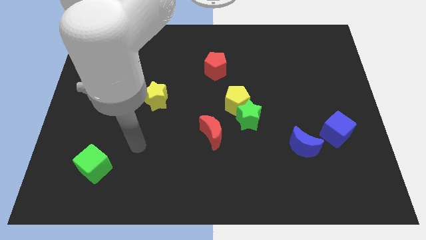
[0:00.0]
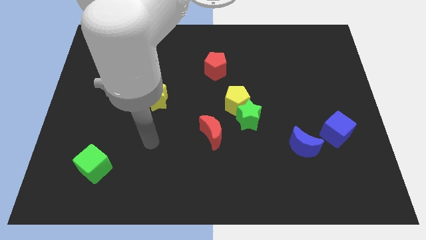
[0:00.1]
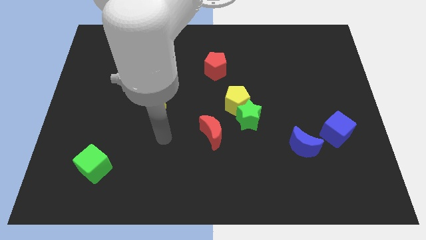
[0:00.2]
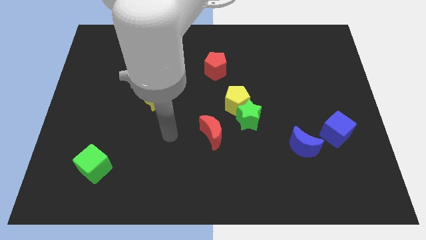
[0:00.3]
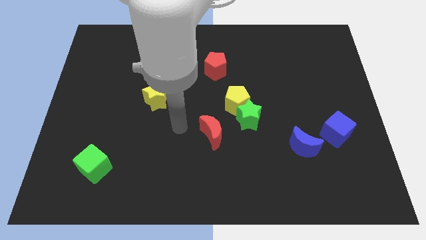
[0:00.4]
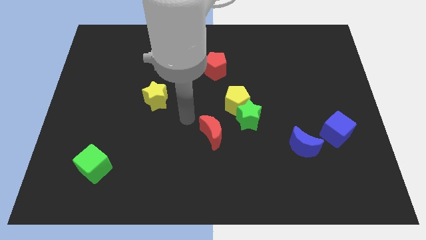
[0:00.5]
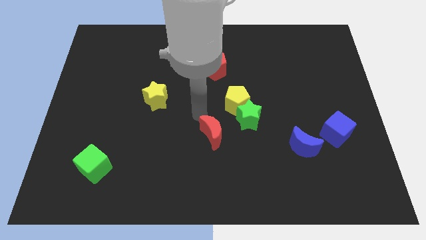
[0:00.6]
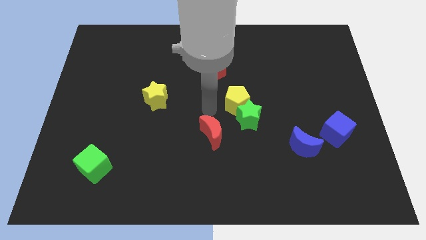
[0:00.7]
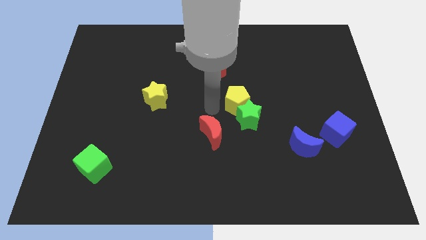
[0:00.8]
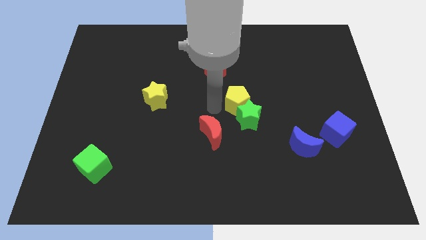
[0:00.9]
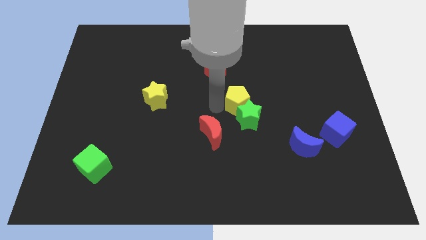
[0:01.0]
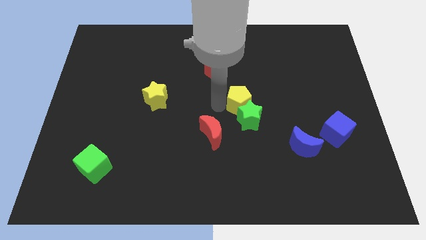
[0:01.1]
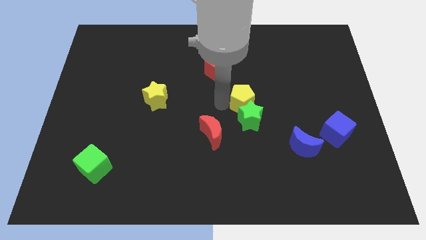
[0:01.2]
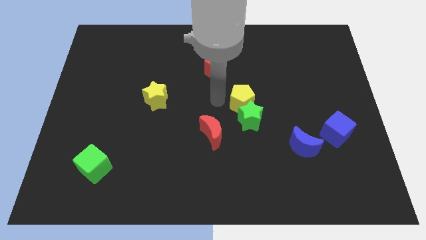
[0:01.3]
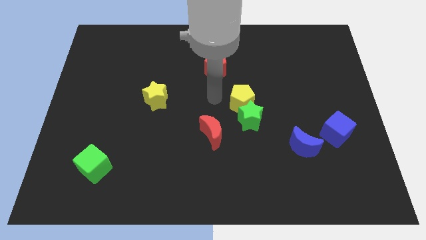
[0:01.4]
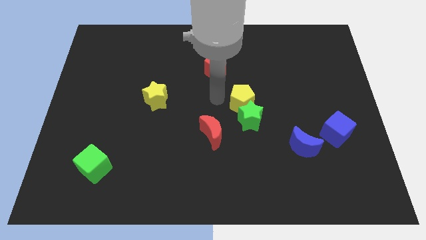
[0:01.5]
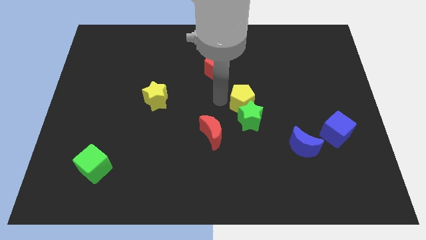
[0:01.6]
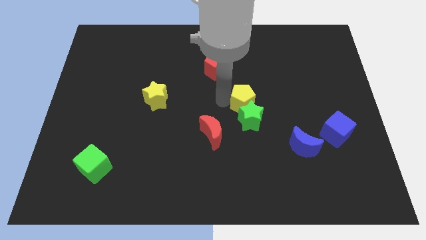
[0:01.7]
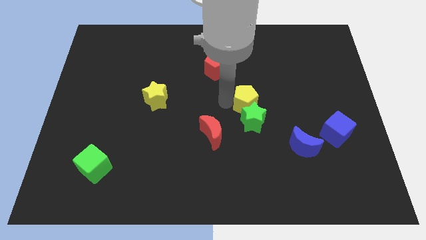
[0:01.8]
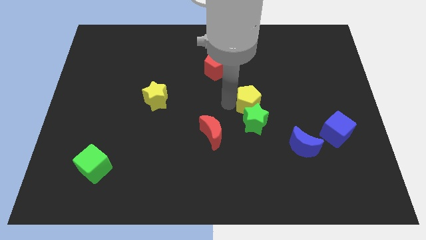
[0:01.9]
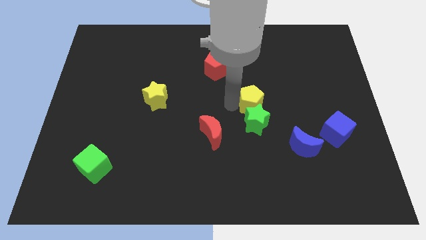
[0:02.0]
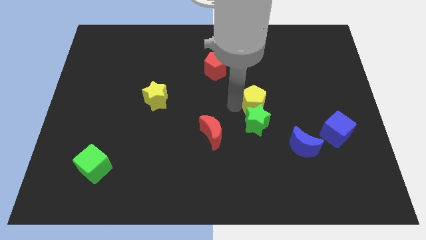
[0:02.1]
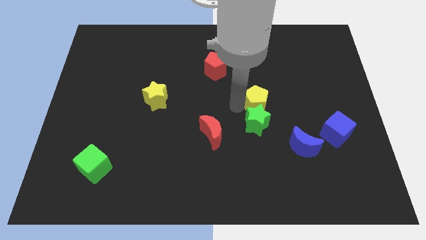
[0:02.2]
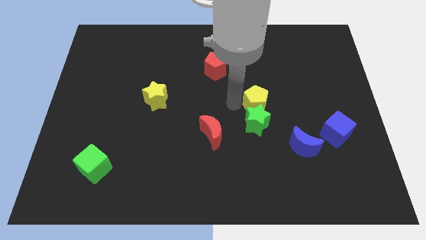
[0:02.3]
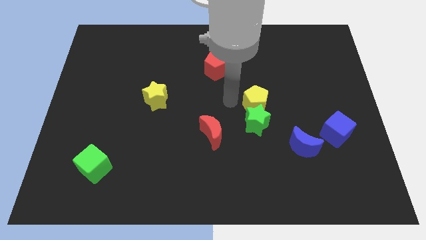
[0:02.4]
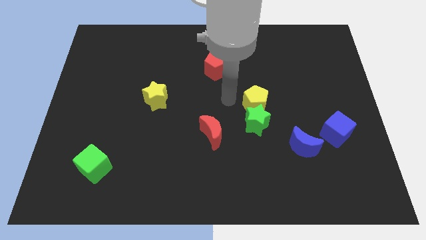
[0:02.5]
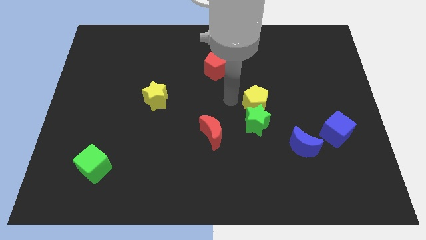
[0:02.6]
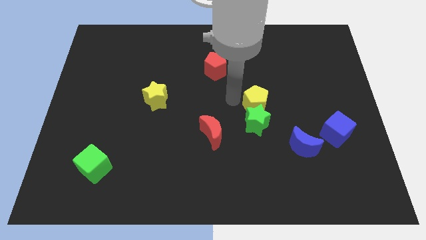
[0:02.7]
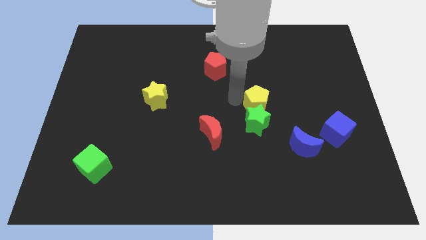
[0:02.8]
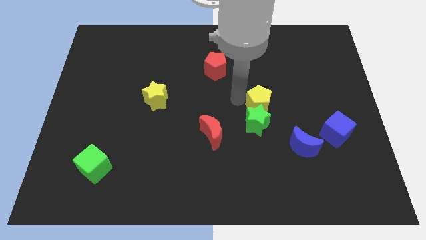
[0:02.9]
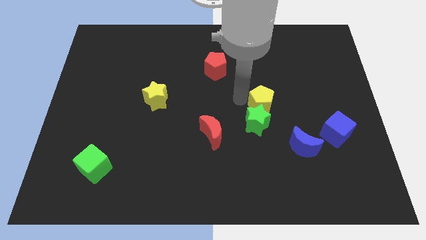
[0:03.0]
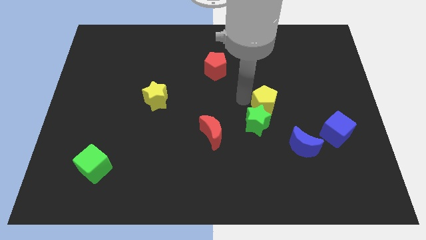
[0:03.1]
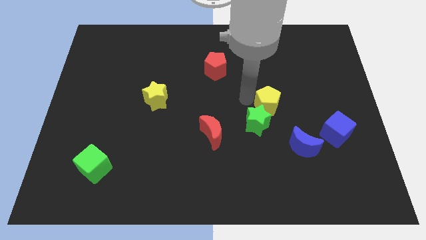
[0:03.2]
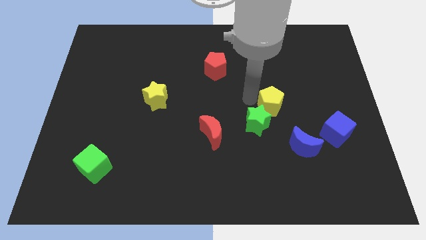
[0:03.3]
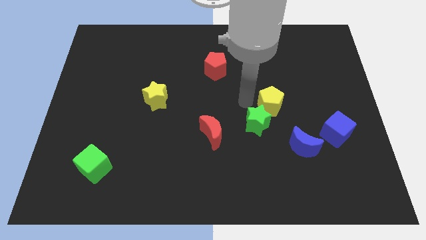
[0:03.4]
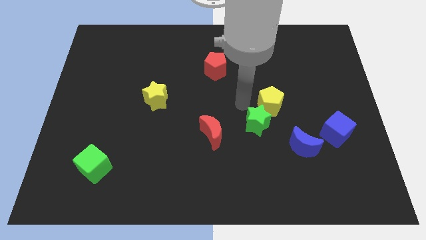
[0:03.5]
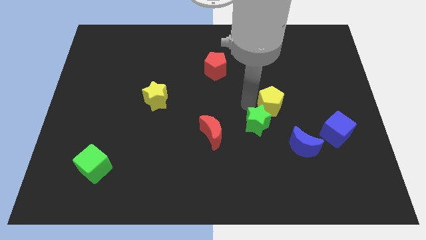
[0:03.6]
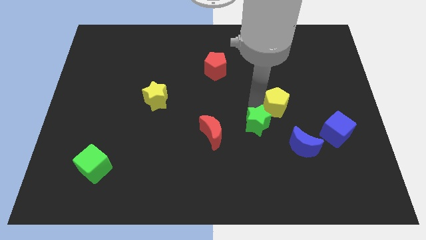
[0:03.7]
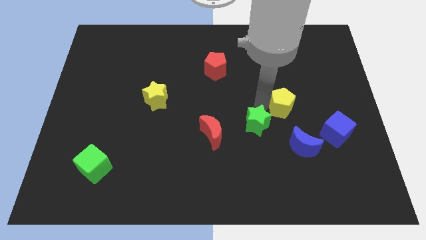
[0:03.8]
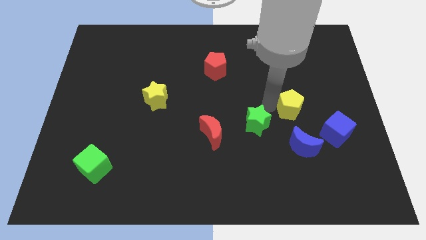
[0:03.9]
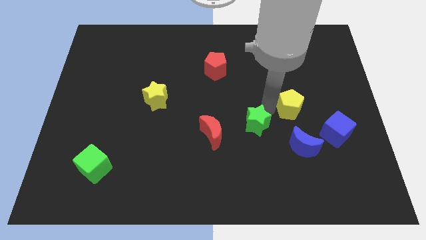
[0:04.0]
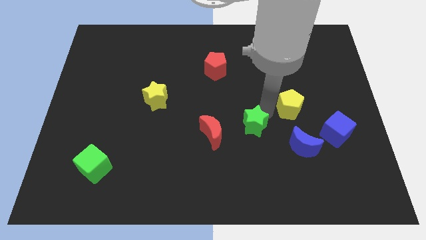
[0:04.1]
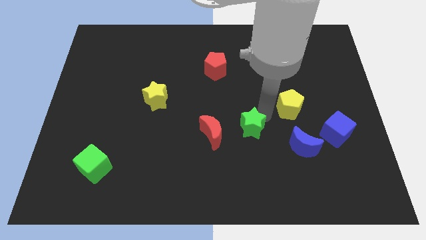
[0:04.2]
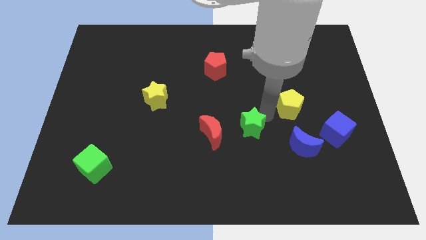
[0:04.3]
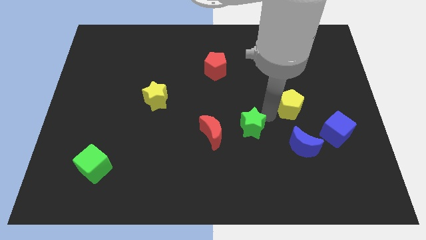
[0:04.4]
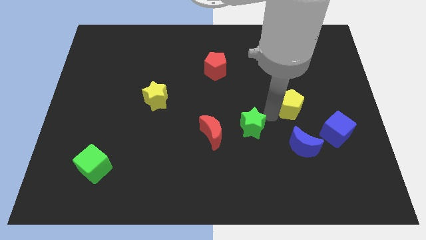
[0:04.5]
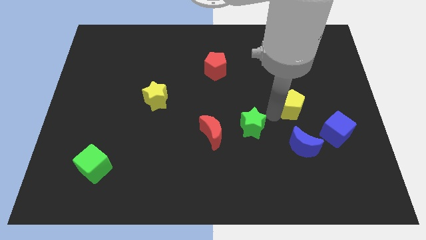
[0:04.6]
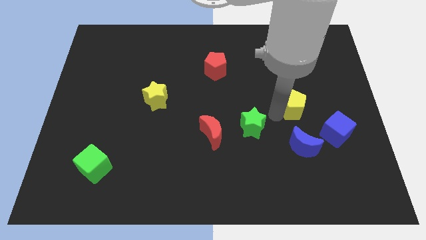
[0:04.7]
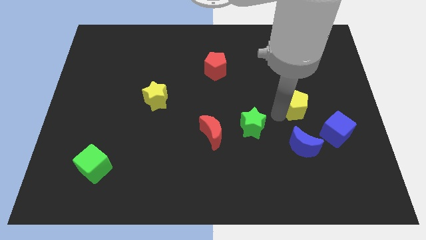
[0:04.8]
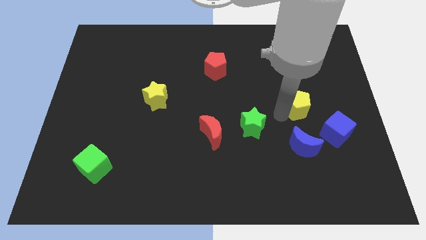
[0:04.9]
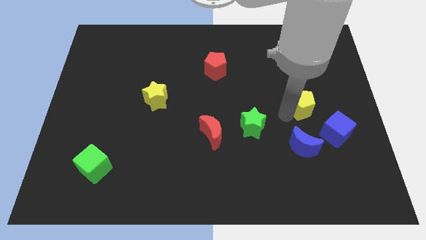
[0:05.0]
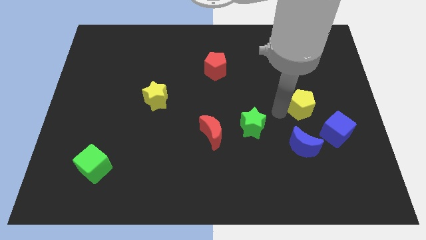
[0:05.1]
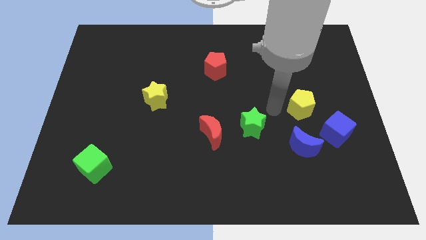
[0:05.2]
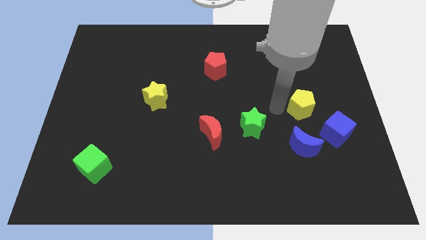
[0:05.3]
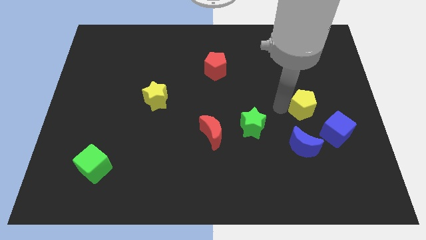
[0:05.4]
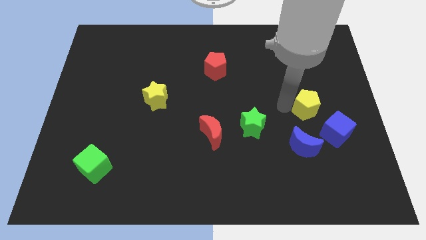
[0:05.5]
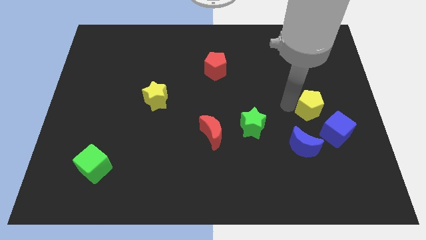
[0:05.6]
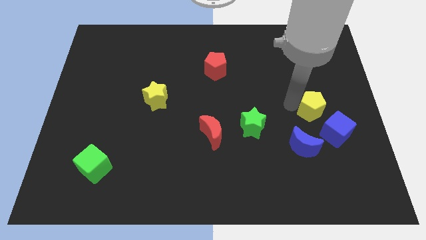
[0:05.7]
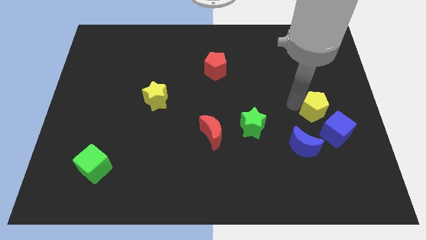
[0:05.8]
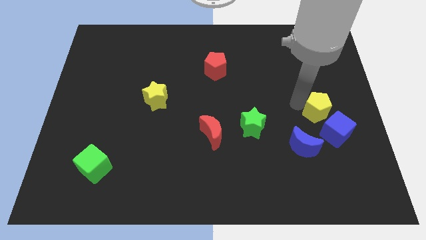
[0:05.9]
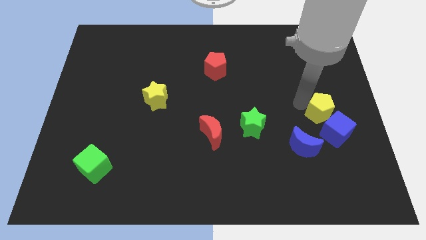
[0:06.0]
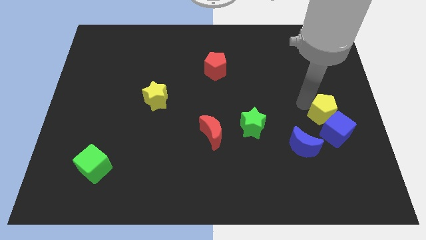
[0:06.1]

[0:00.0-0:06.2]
put the yellow pentagon to the right side

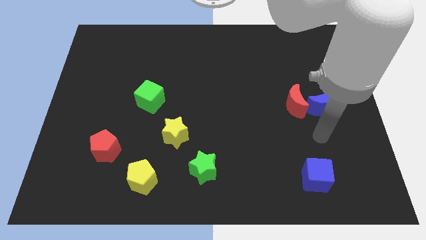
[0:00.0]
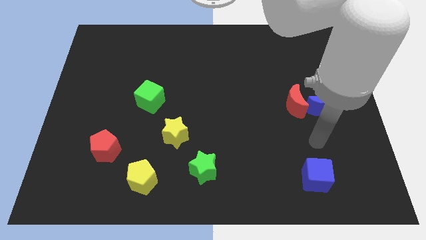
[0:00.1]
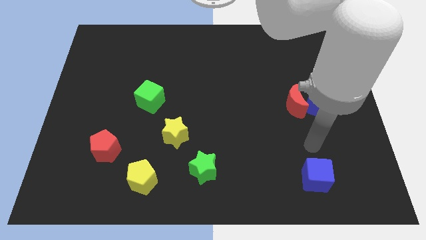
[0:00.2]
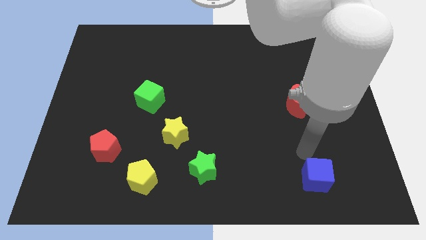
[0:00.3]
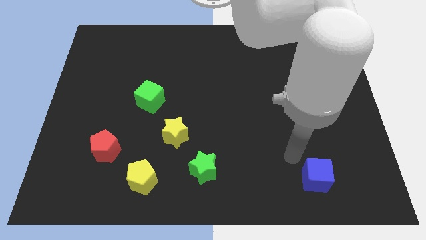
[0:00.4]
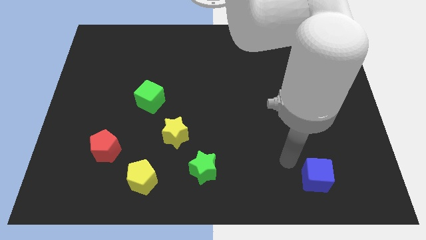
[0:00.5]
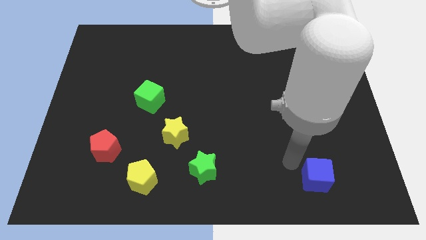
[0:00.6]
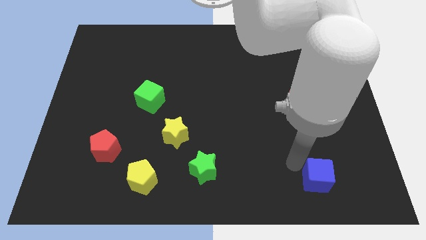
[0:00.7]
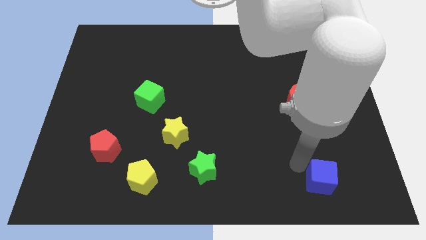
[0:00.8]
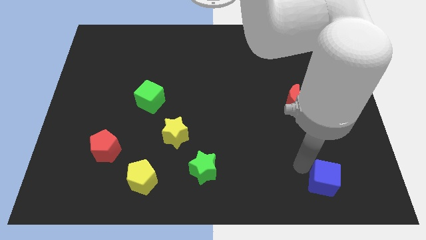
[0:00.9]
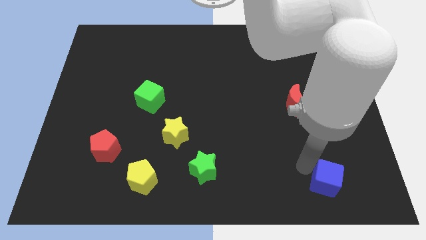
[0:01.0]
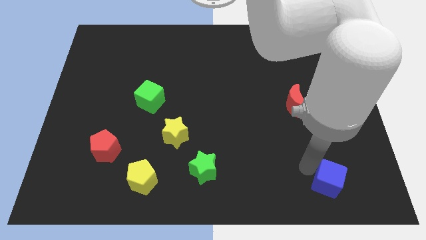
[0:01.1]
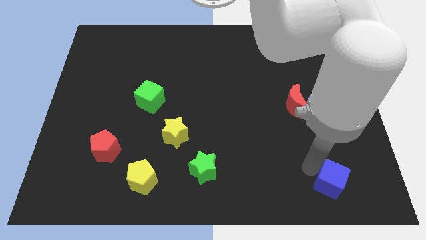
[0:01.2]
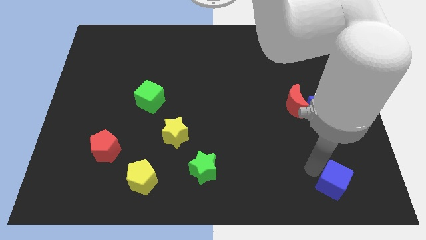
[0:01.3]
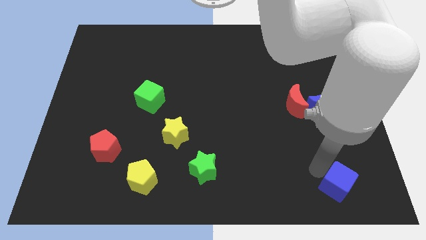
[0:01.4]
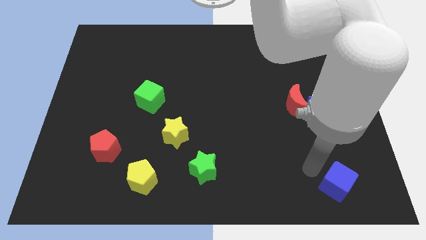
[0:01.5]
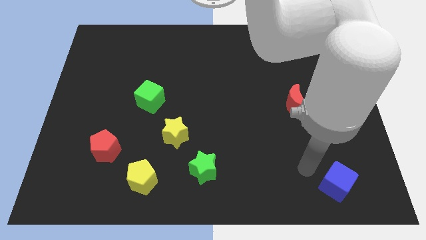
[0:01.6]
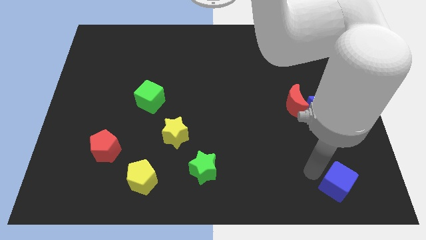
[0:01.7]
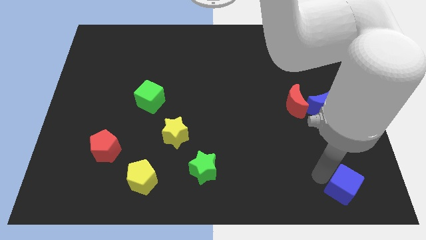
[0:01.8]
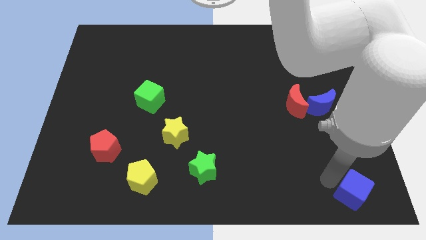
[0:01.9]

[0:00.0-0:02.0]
push the blue cube to the lower right corner
